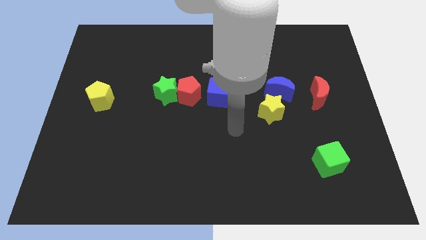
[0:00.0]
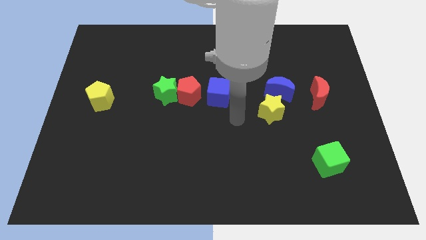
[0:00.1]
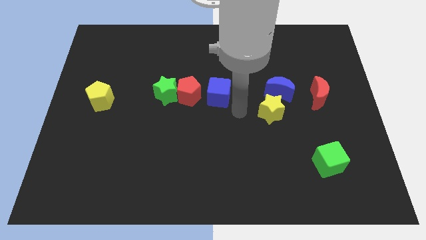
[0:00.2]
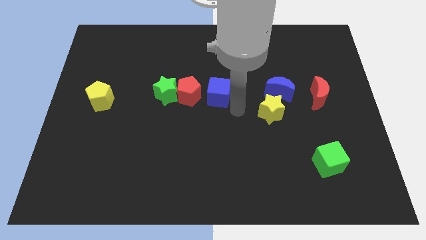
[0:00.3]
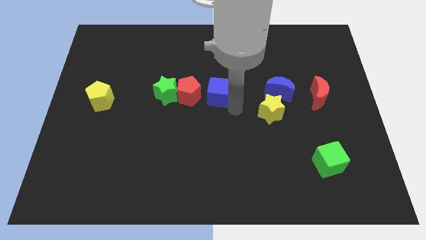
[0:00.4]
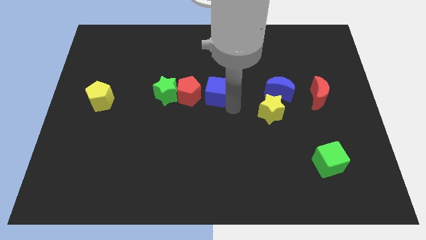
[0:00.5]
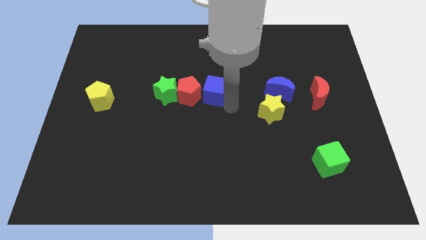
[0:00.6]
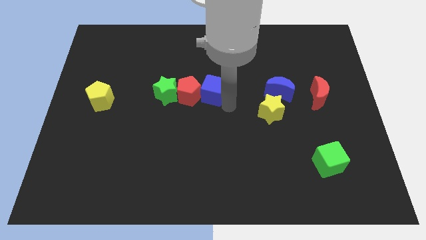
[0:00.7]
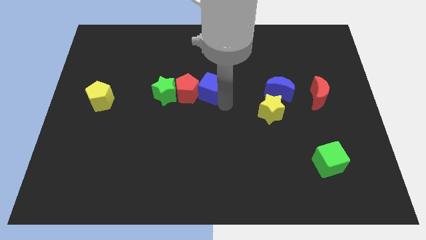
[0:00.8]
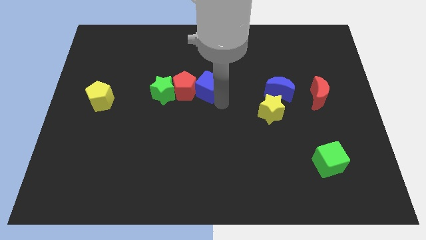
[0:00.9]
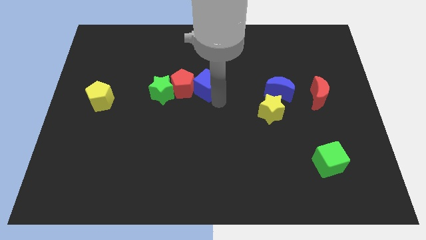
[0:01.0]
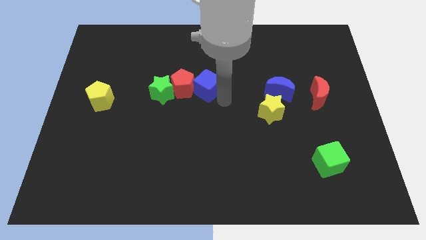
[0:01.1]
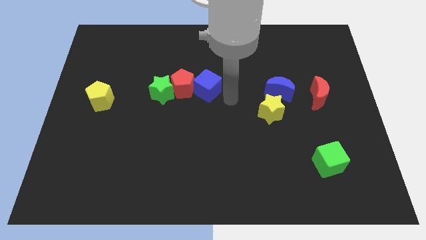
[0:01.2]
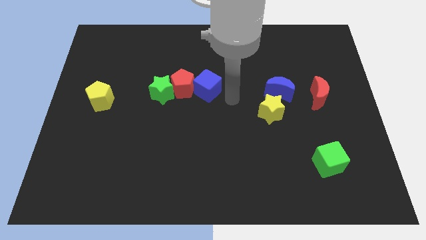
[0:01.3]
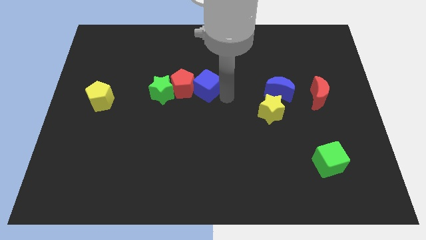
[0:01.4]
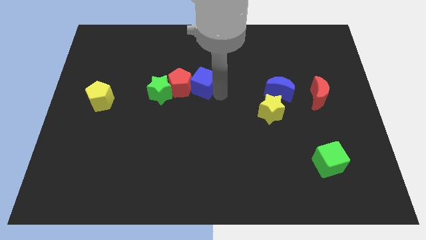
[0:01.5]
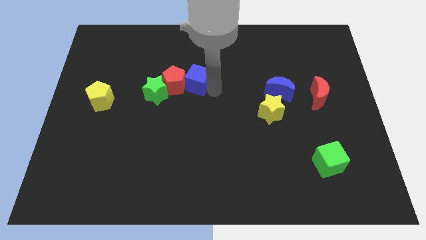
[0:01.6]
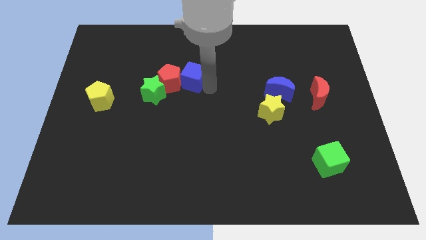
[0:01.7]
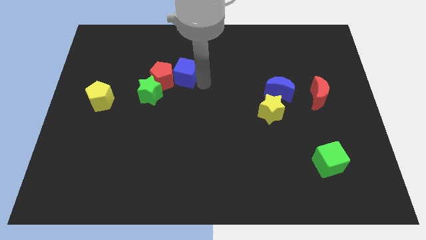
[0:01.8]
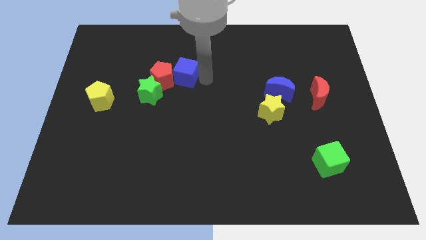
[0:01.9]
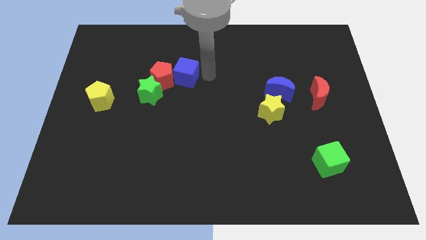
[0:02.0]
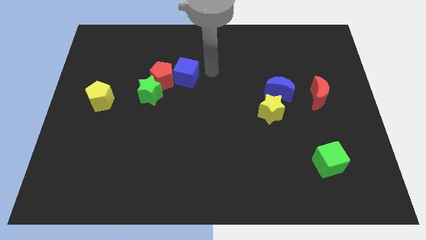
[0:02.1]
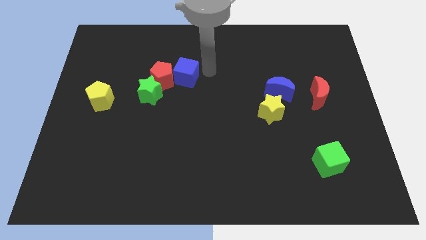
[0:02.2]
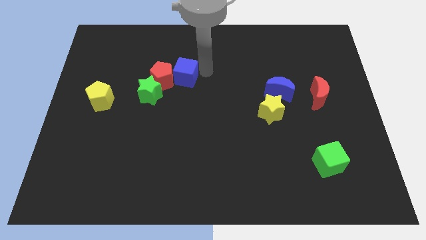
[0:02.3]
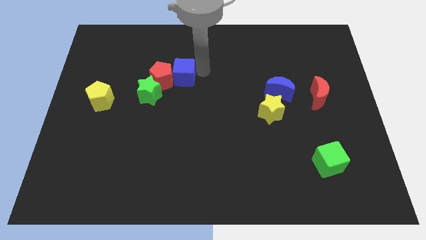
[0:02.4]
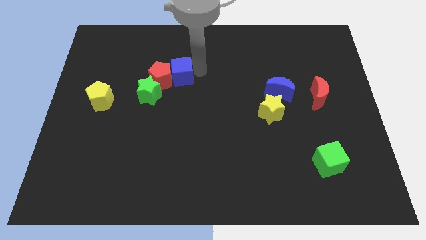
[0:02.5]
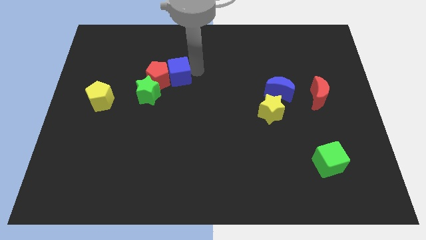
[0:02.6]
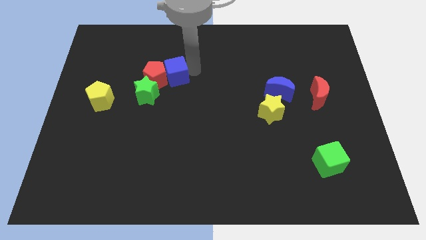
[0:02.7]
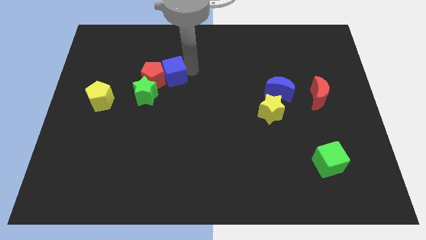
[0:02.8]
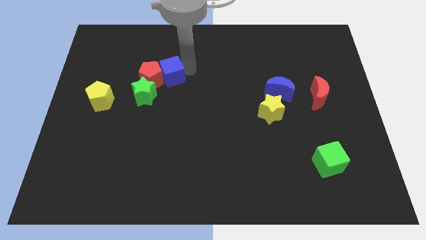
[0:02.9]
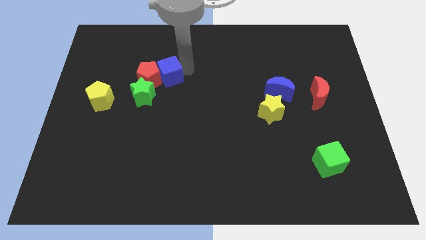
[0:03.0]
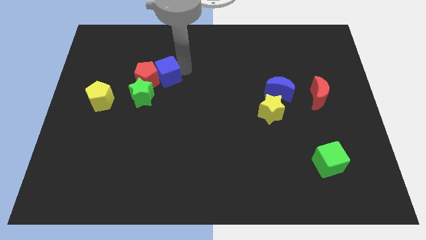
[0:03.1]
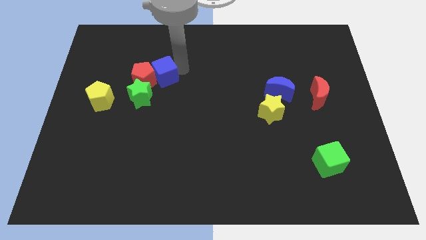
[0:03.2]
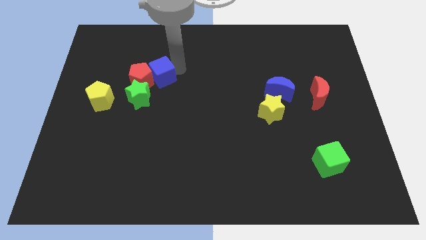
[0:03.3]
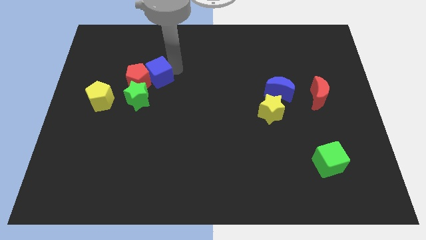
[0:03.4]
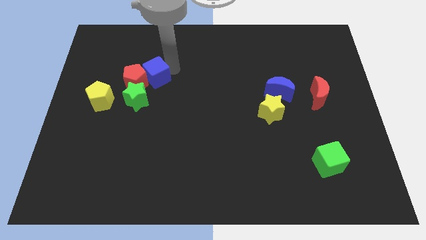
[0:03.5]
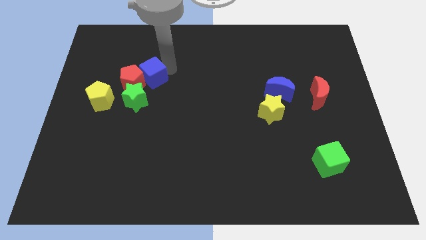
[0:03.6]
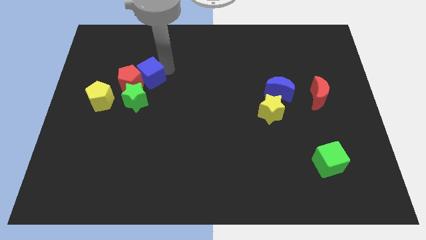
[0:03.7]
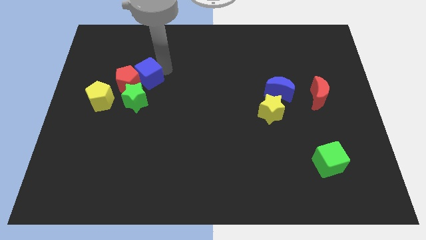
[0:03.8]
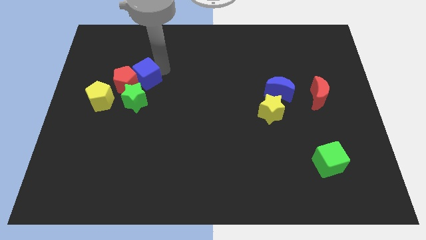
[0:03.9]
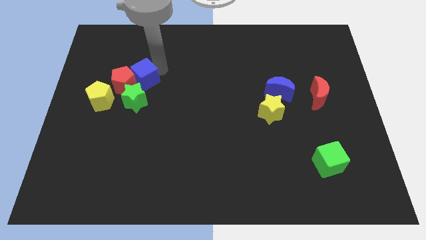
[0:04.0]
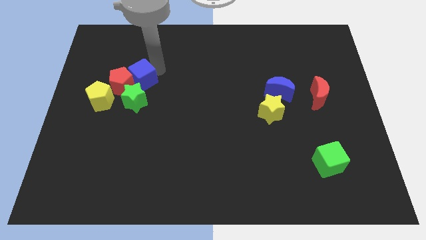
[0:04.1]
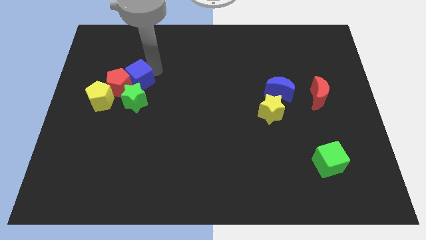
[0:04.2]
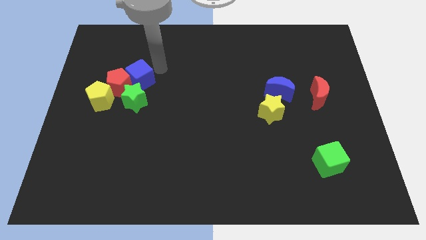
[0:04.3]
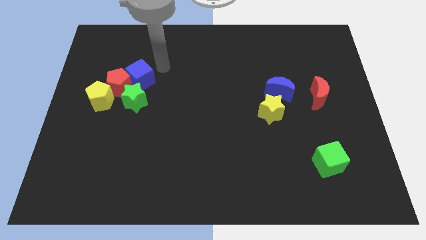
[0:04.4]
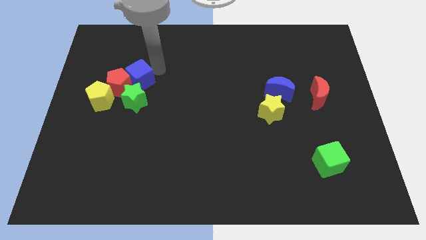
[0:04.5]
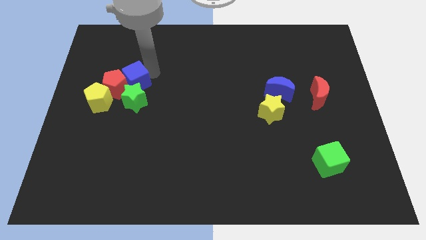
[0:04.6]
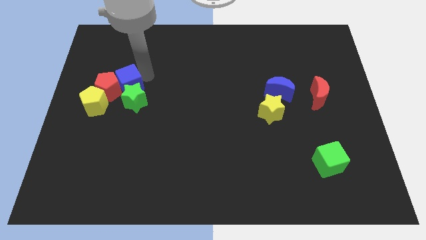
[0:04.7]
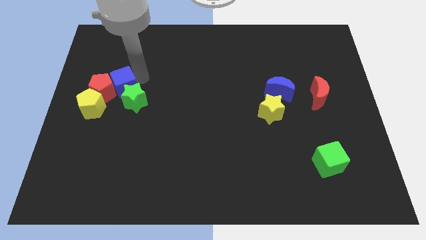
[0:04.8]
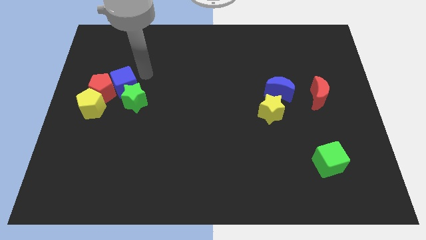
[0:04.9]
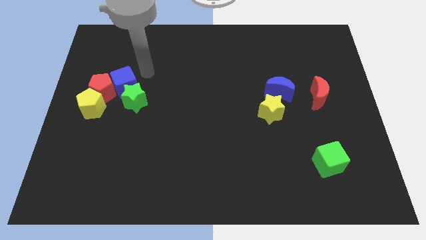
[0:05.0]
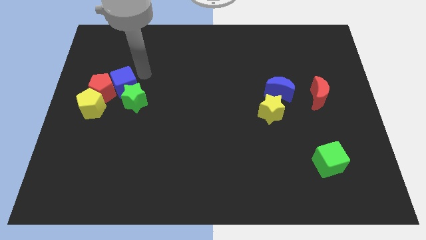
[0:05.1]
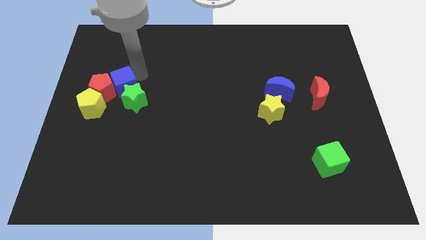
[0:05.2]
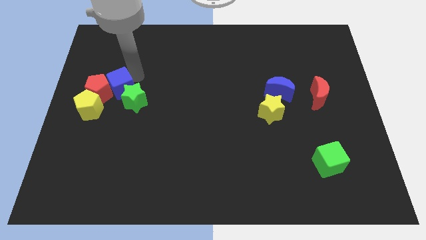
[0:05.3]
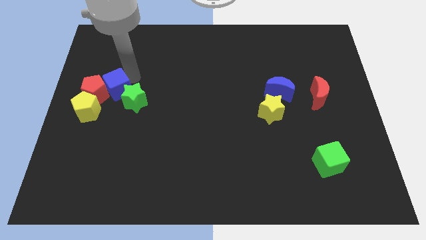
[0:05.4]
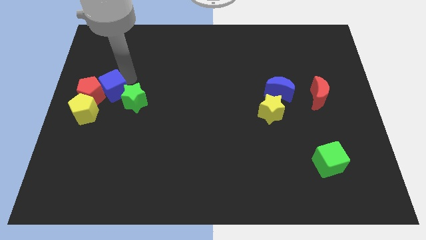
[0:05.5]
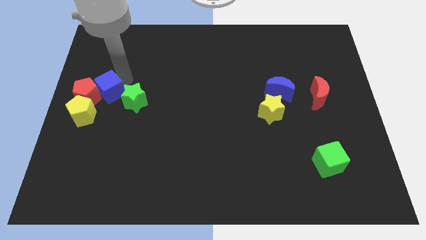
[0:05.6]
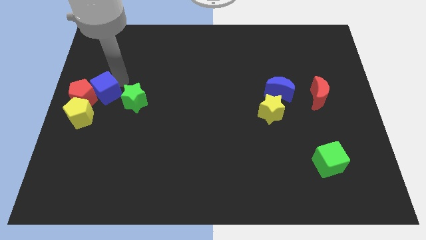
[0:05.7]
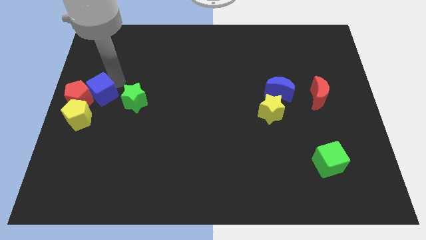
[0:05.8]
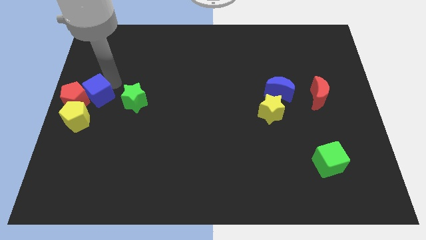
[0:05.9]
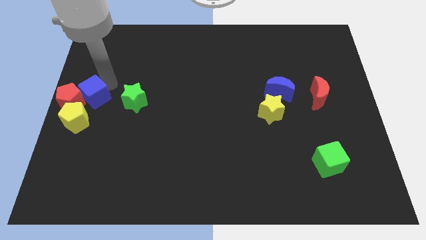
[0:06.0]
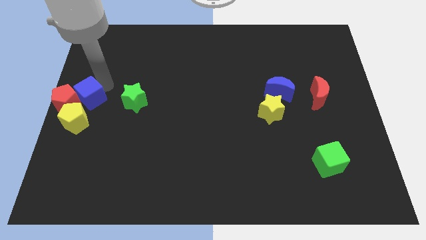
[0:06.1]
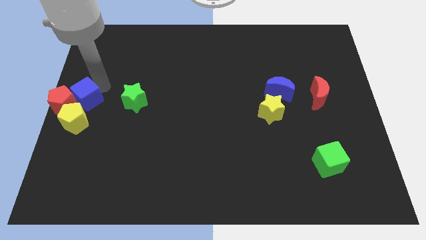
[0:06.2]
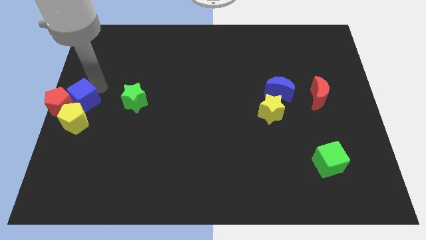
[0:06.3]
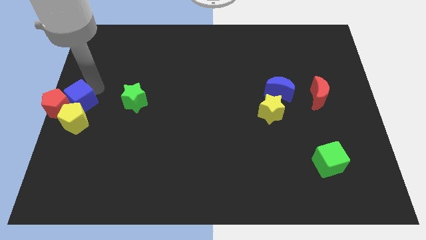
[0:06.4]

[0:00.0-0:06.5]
put the blue cube to the yellow pentagon

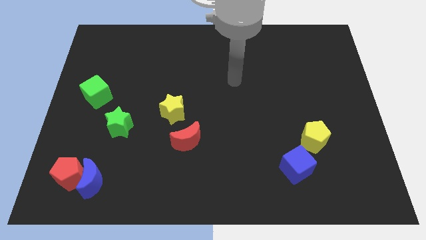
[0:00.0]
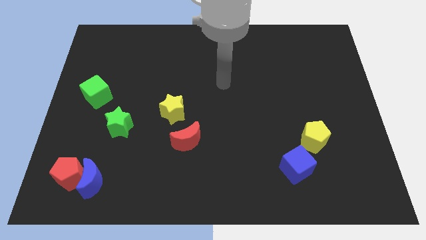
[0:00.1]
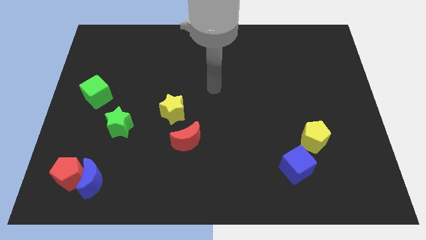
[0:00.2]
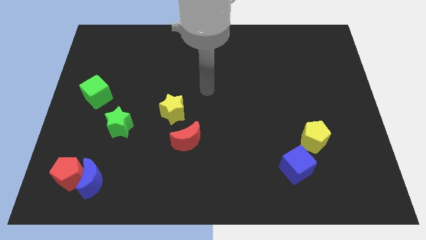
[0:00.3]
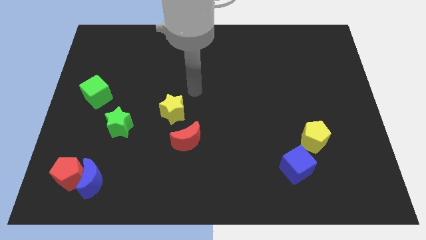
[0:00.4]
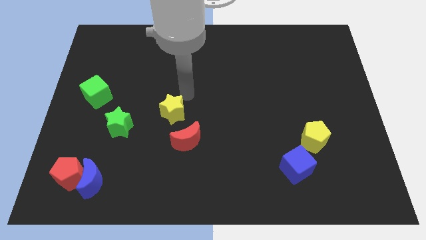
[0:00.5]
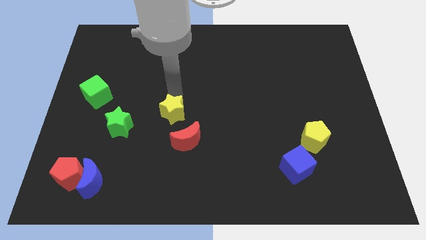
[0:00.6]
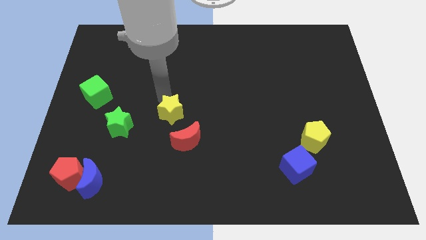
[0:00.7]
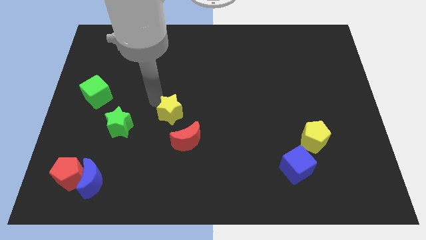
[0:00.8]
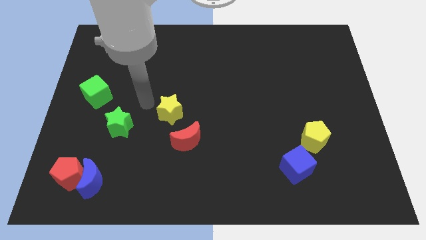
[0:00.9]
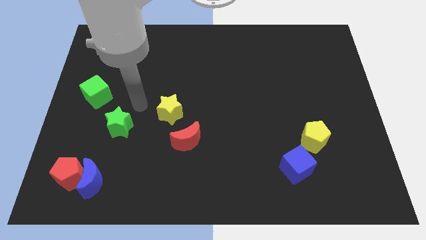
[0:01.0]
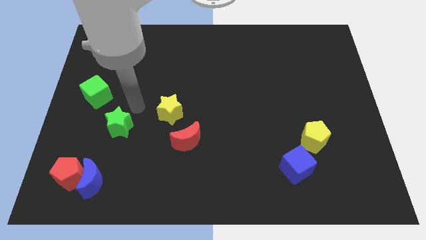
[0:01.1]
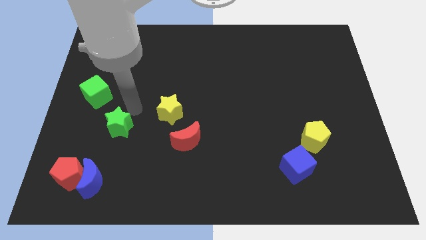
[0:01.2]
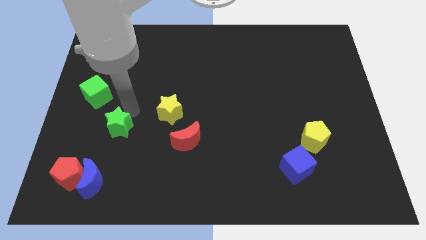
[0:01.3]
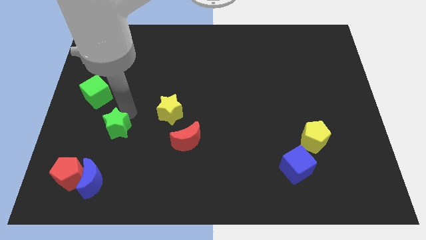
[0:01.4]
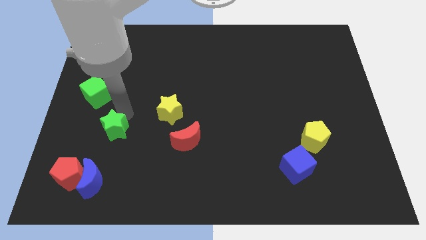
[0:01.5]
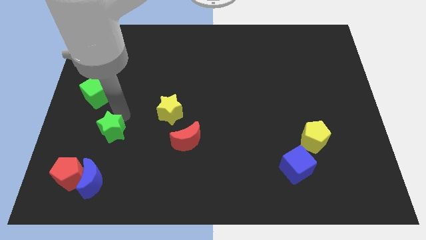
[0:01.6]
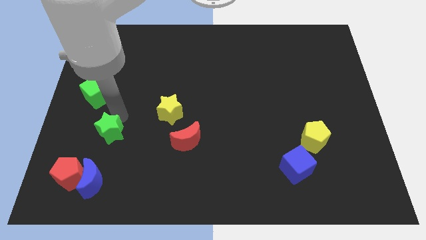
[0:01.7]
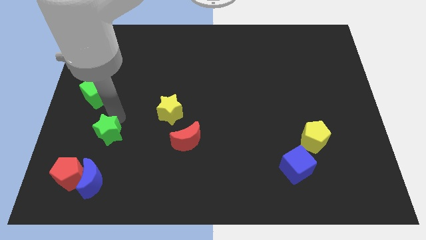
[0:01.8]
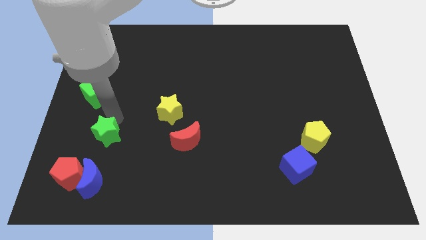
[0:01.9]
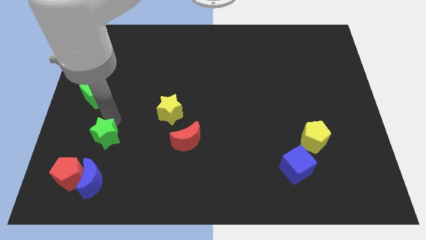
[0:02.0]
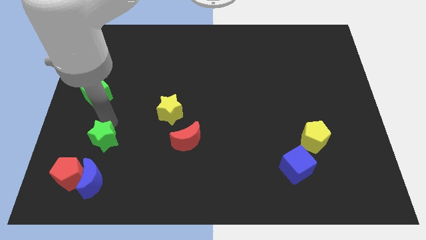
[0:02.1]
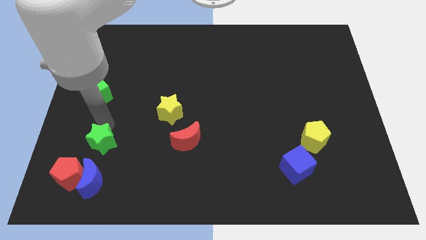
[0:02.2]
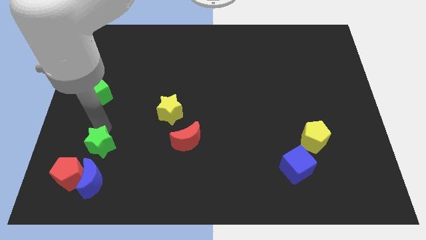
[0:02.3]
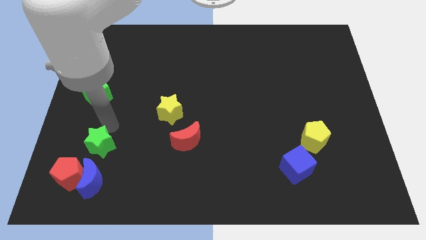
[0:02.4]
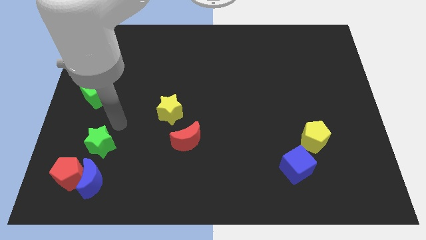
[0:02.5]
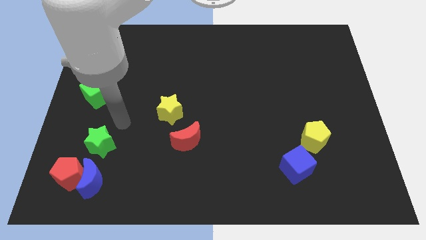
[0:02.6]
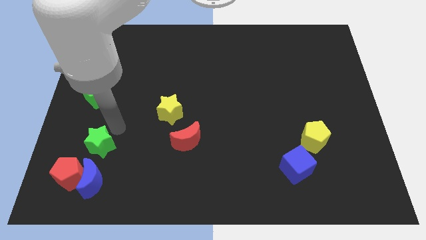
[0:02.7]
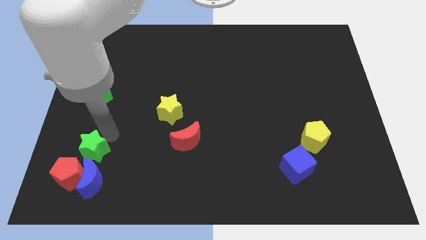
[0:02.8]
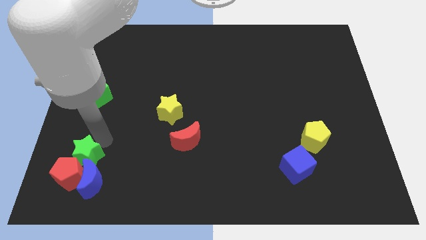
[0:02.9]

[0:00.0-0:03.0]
move the green star to the red pentagon
